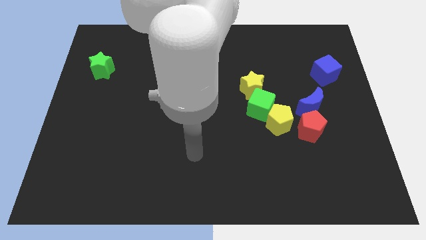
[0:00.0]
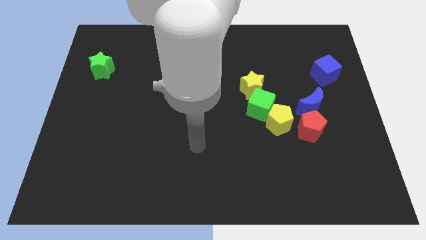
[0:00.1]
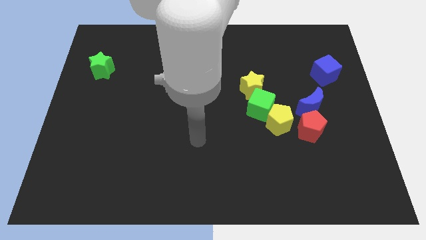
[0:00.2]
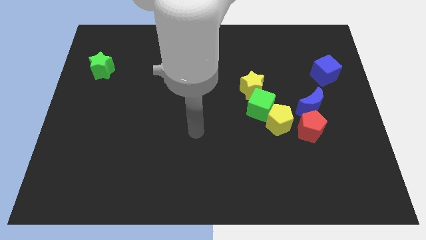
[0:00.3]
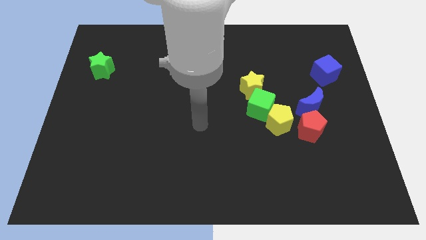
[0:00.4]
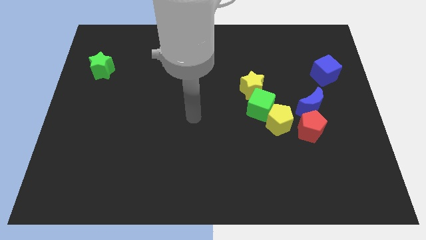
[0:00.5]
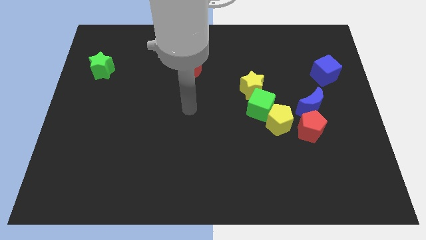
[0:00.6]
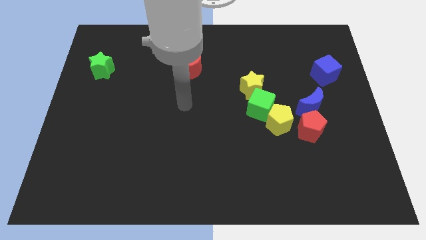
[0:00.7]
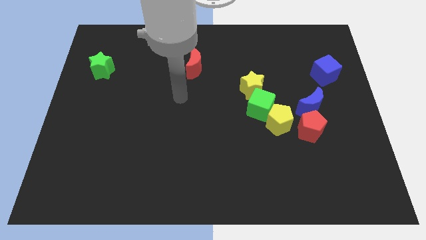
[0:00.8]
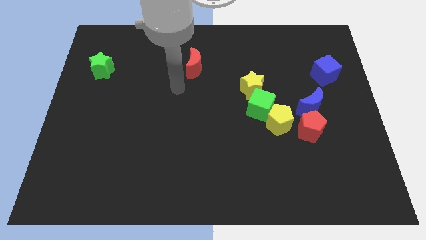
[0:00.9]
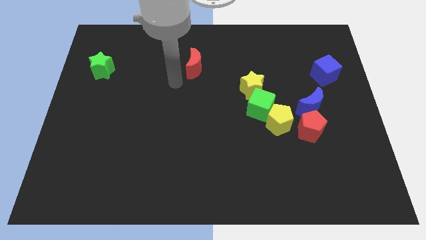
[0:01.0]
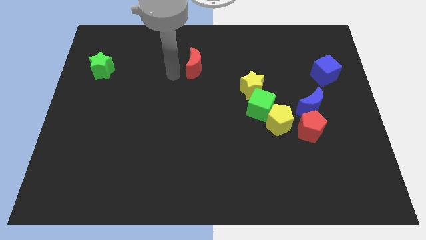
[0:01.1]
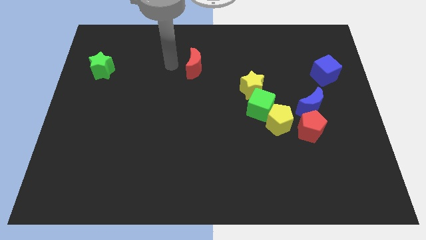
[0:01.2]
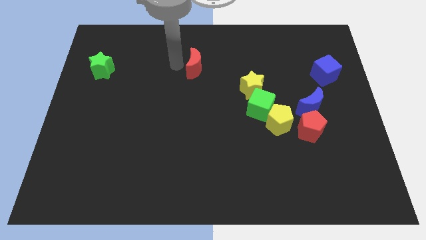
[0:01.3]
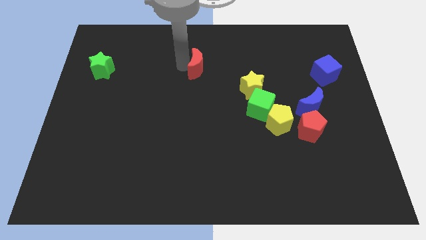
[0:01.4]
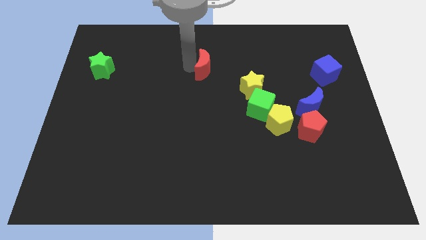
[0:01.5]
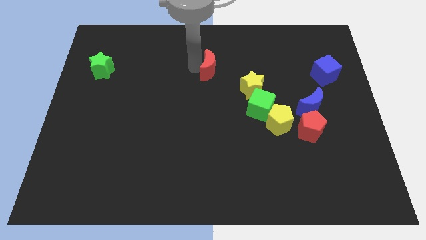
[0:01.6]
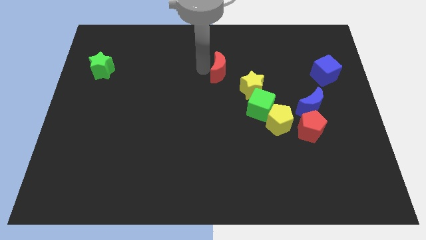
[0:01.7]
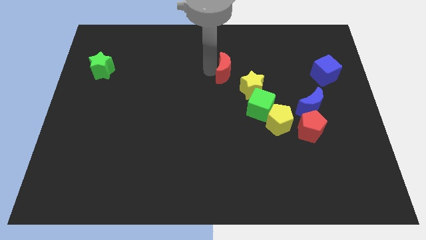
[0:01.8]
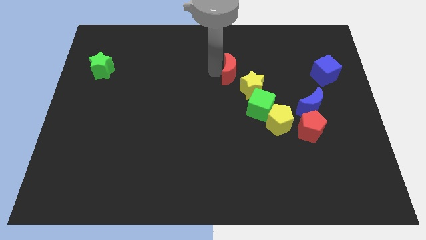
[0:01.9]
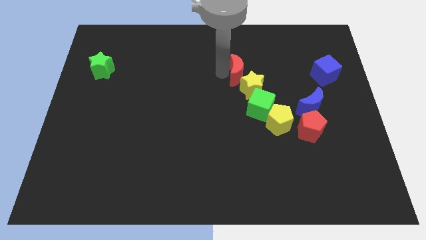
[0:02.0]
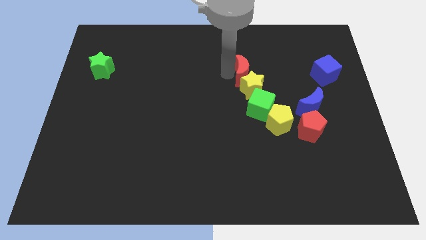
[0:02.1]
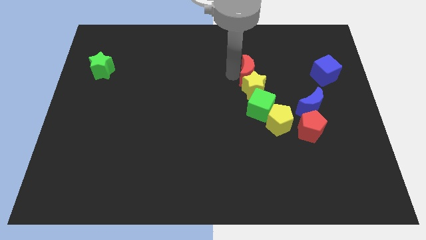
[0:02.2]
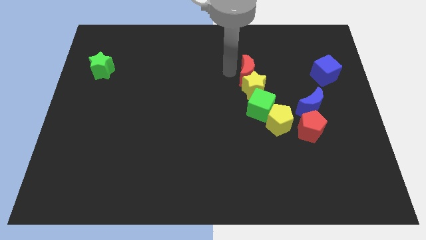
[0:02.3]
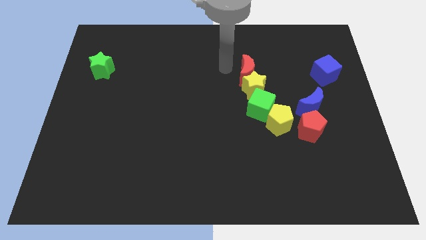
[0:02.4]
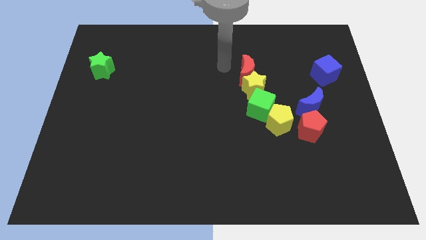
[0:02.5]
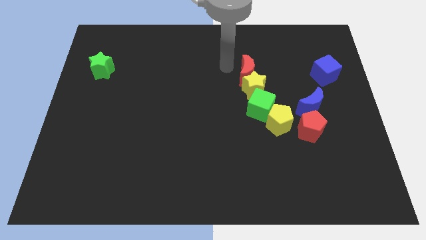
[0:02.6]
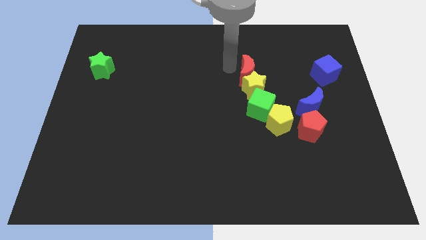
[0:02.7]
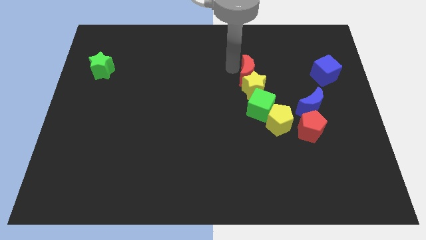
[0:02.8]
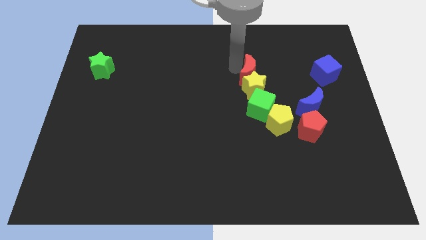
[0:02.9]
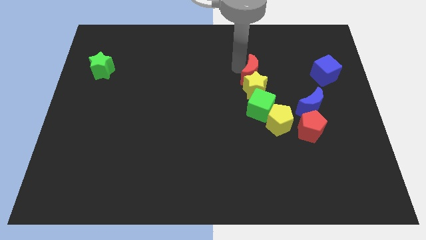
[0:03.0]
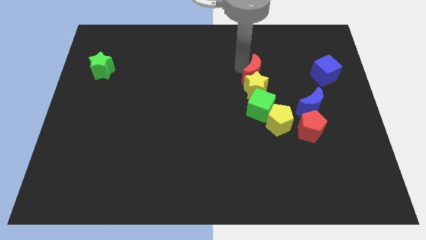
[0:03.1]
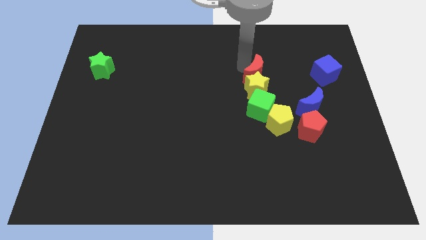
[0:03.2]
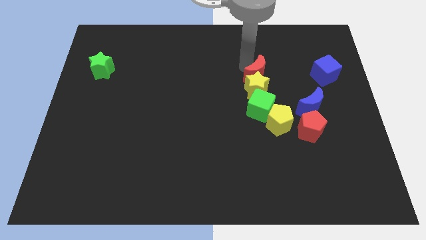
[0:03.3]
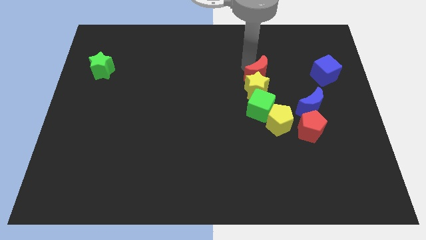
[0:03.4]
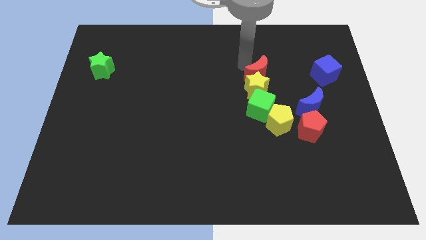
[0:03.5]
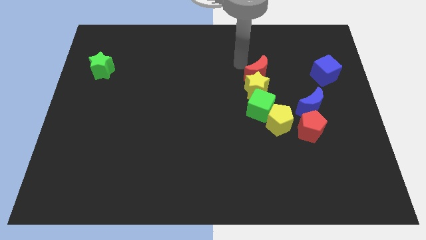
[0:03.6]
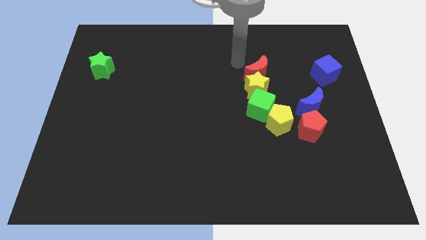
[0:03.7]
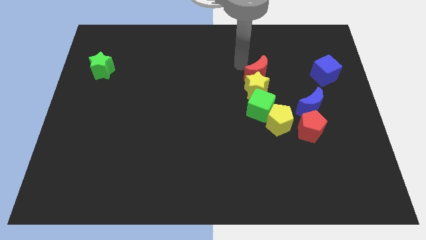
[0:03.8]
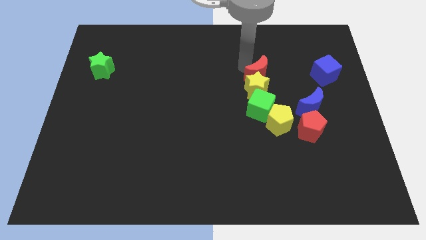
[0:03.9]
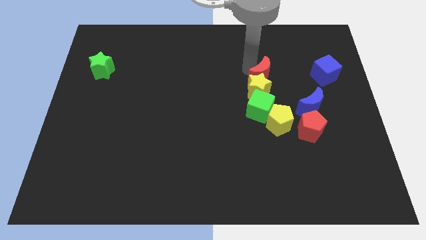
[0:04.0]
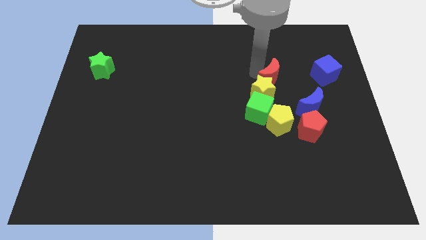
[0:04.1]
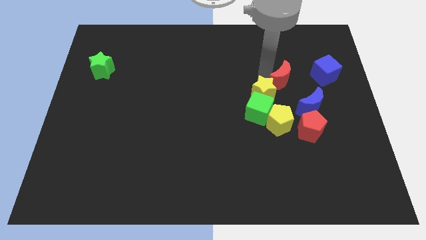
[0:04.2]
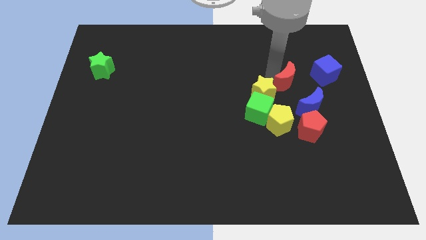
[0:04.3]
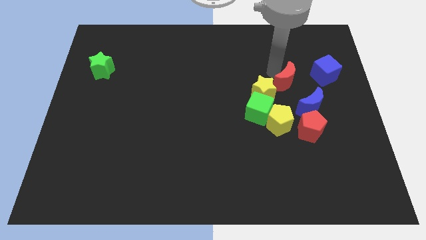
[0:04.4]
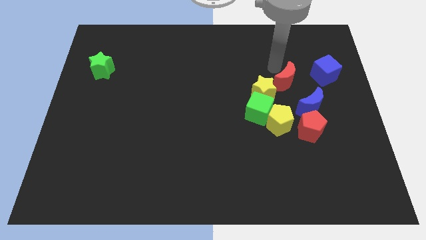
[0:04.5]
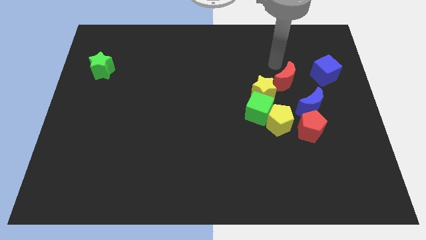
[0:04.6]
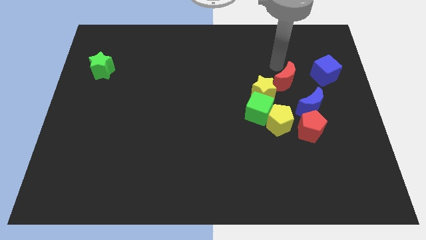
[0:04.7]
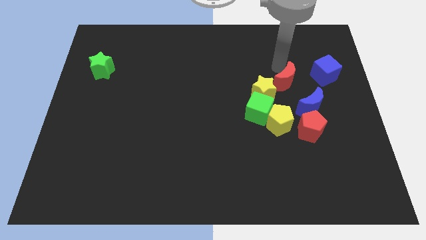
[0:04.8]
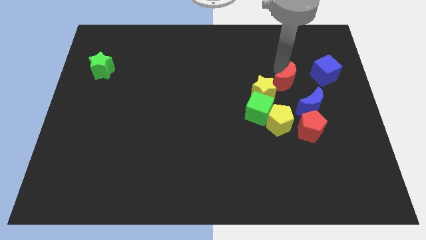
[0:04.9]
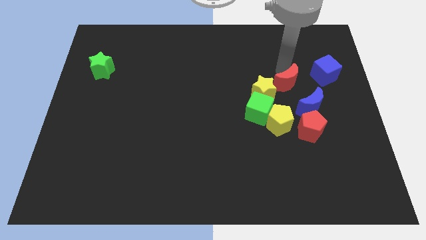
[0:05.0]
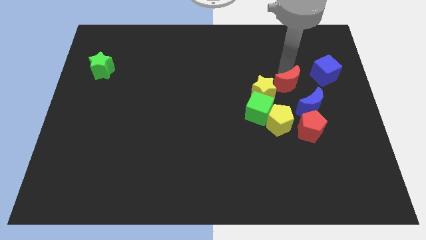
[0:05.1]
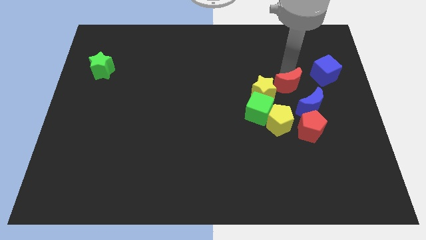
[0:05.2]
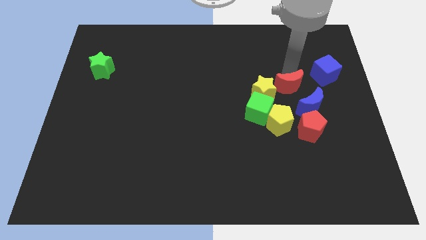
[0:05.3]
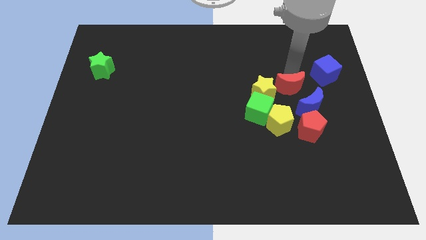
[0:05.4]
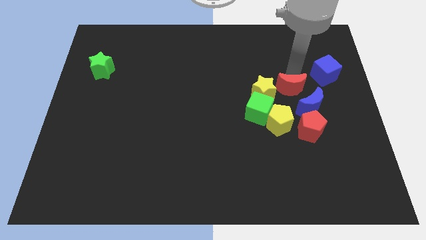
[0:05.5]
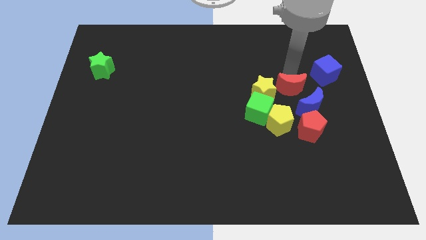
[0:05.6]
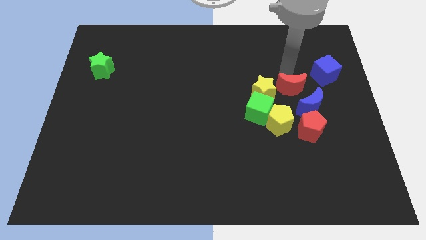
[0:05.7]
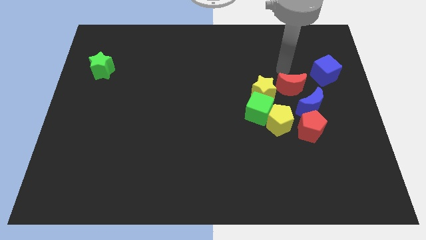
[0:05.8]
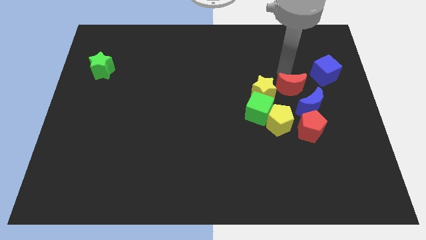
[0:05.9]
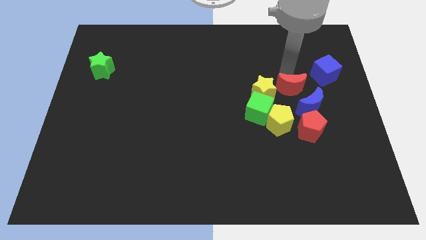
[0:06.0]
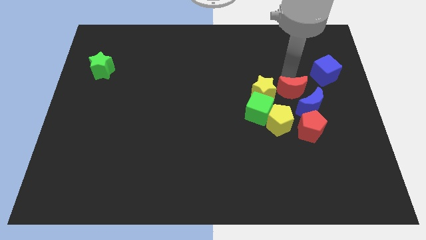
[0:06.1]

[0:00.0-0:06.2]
slide the red moon to the blue moon

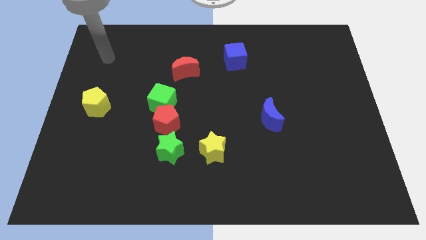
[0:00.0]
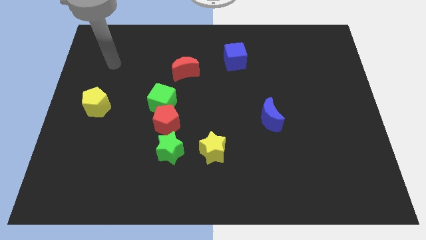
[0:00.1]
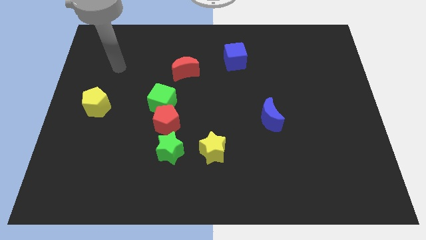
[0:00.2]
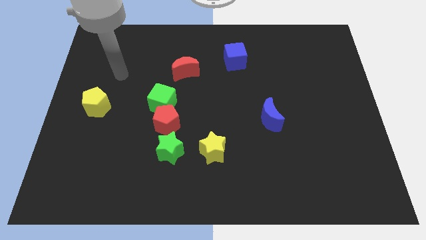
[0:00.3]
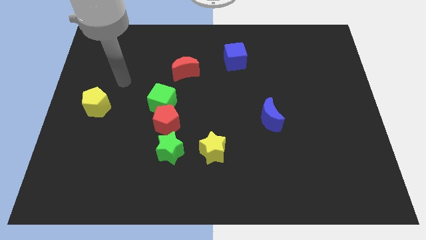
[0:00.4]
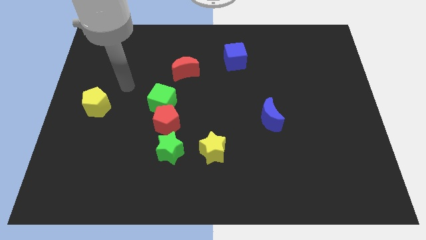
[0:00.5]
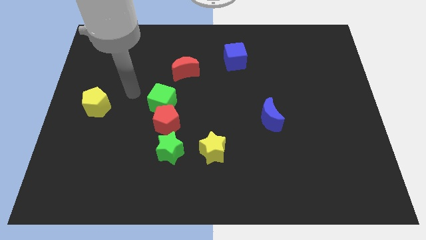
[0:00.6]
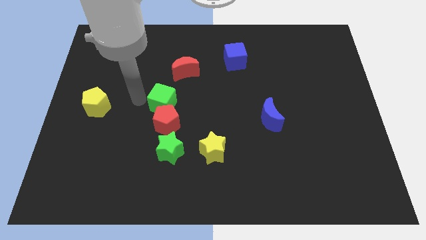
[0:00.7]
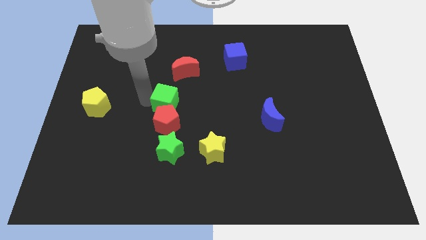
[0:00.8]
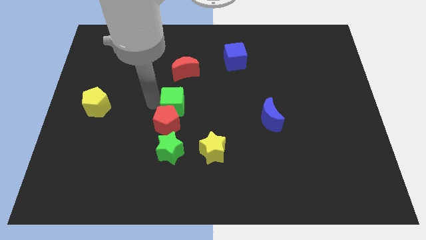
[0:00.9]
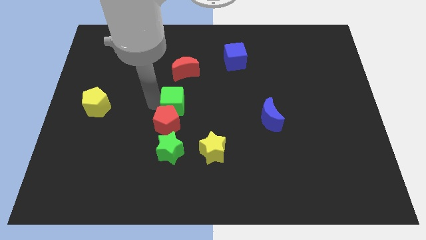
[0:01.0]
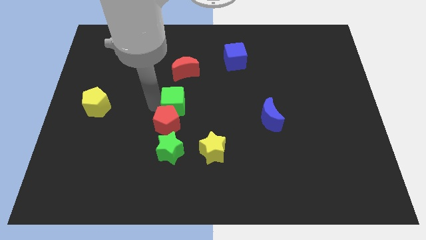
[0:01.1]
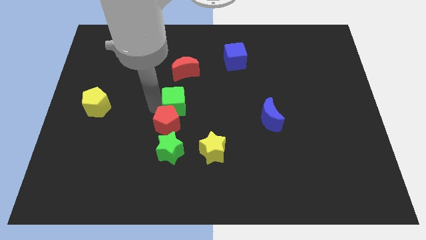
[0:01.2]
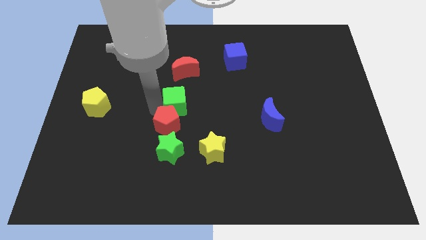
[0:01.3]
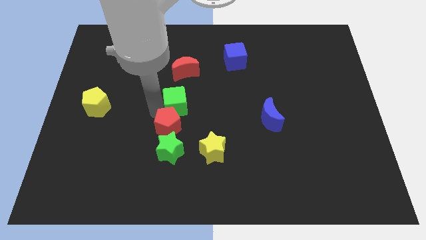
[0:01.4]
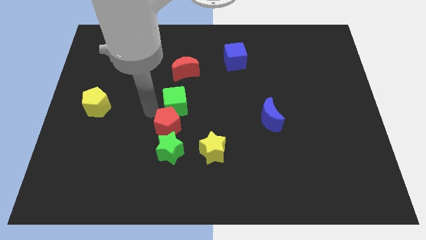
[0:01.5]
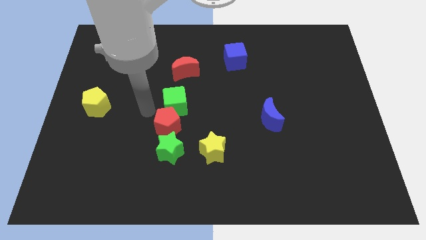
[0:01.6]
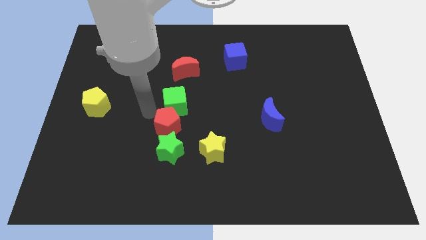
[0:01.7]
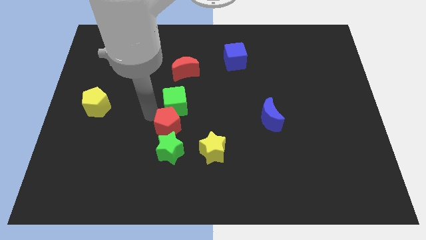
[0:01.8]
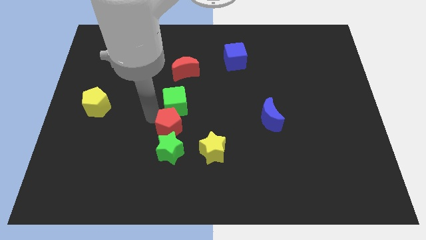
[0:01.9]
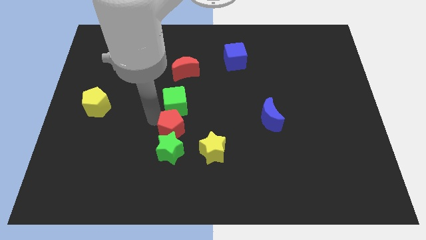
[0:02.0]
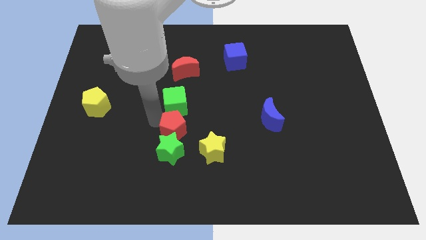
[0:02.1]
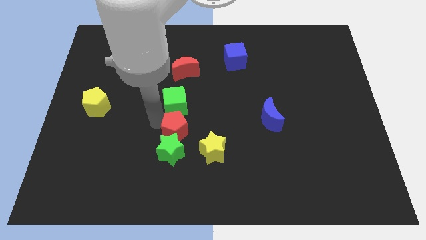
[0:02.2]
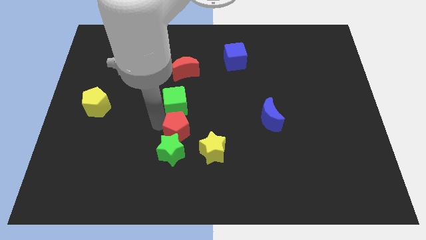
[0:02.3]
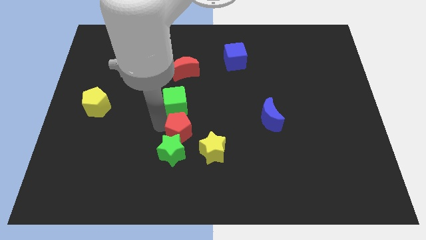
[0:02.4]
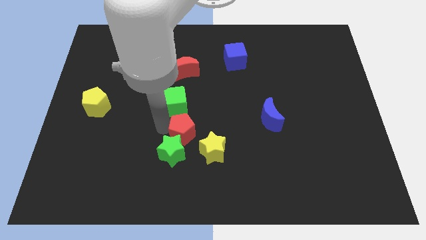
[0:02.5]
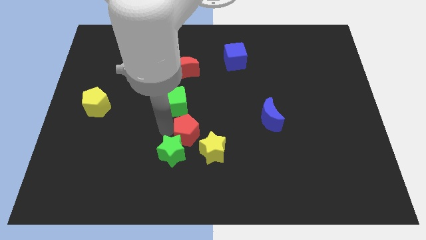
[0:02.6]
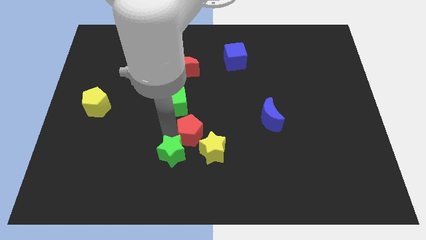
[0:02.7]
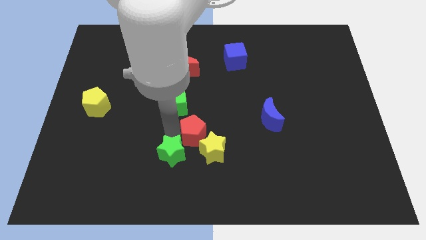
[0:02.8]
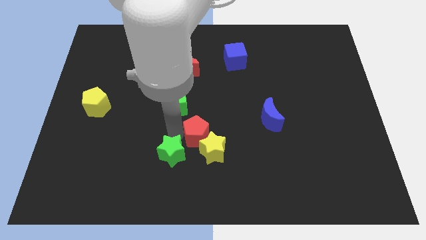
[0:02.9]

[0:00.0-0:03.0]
move the red pentagon close to the yellow star
